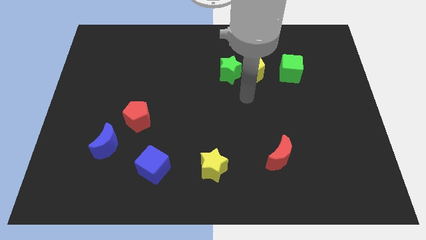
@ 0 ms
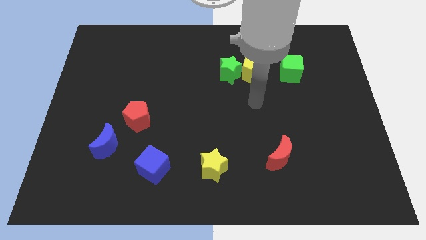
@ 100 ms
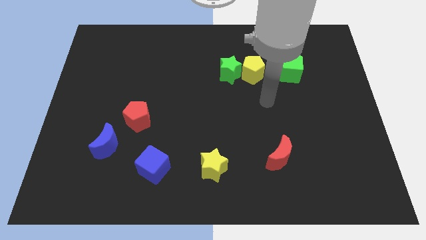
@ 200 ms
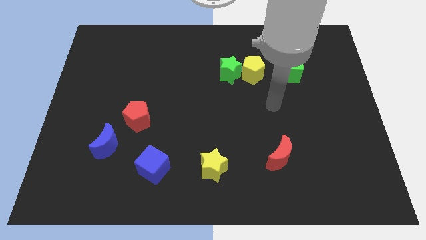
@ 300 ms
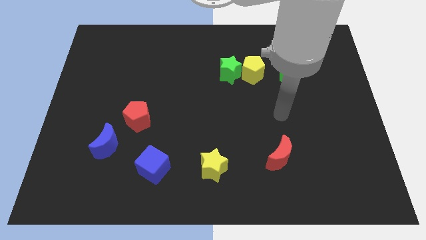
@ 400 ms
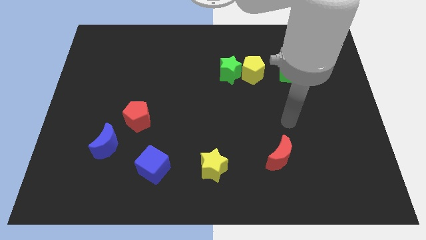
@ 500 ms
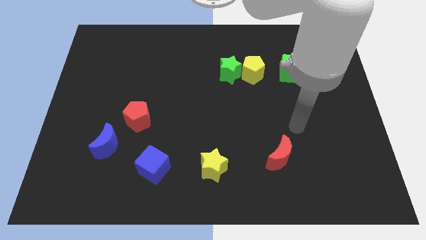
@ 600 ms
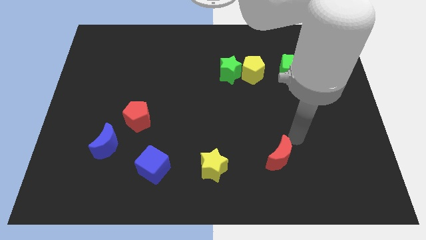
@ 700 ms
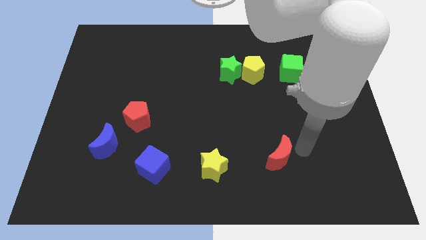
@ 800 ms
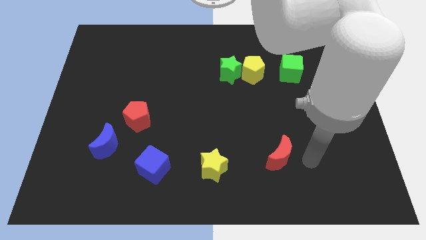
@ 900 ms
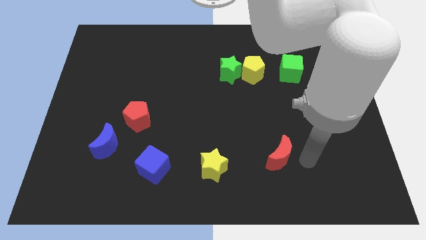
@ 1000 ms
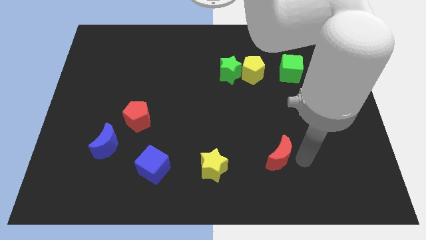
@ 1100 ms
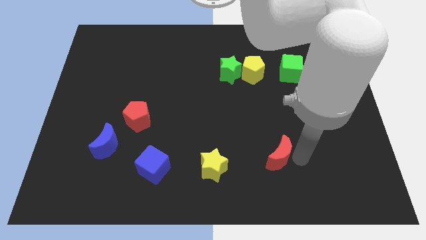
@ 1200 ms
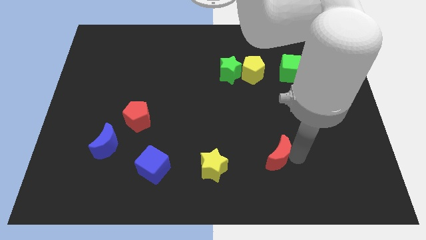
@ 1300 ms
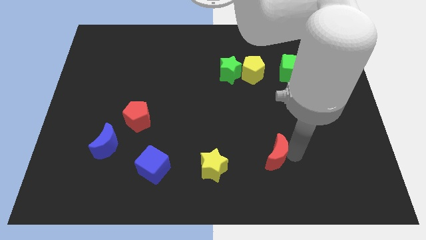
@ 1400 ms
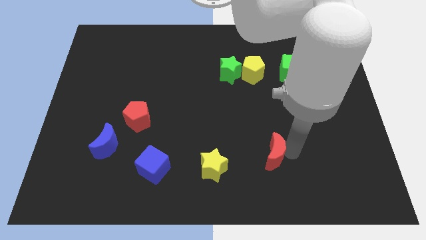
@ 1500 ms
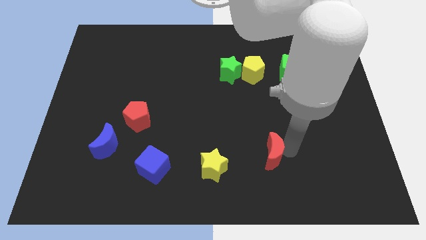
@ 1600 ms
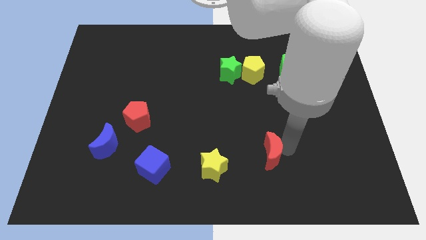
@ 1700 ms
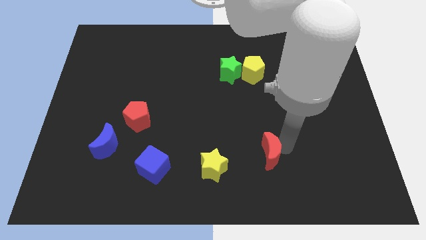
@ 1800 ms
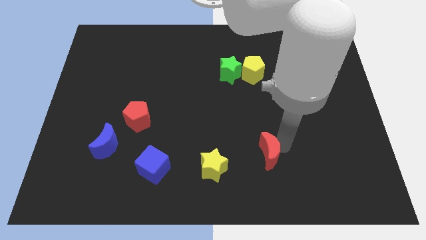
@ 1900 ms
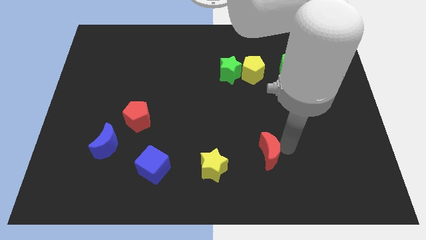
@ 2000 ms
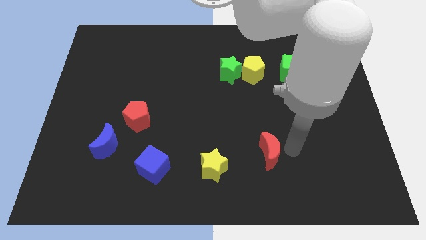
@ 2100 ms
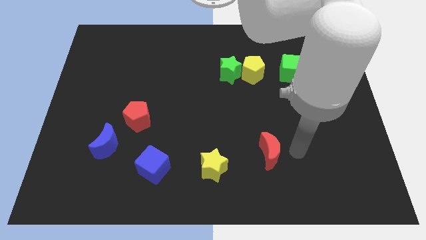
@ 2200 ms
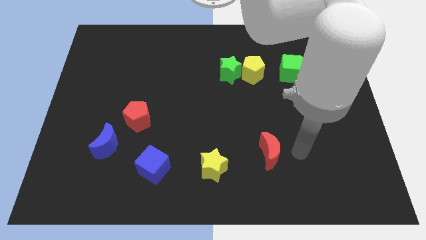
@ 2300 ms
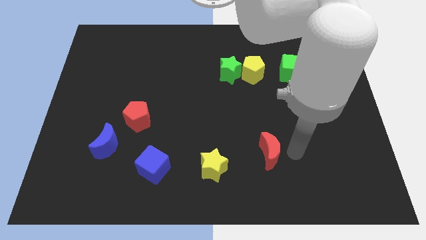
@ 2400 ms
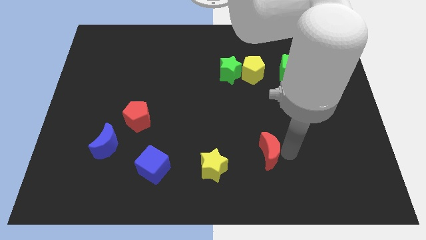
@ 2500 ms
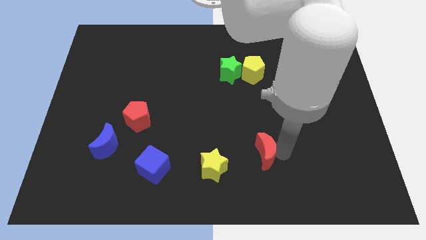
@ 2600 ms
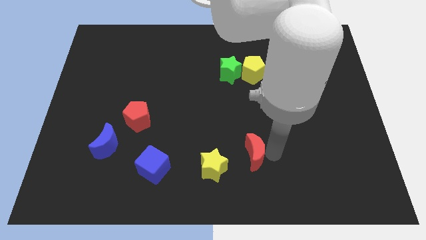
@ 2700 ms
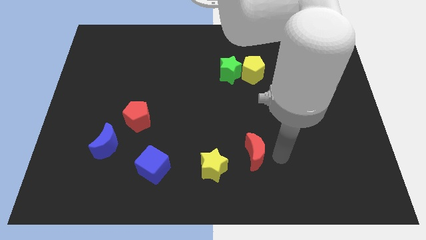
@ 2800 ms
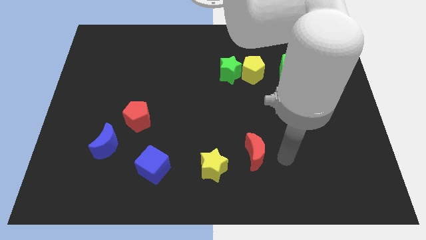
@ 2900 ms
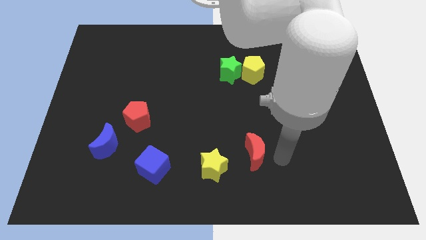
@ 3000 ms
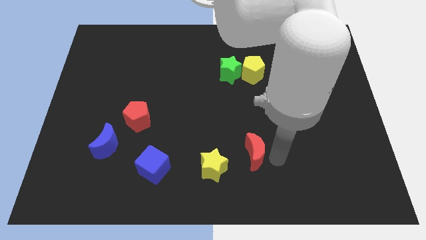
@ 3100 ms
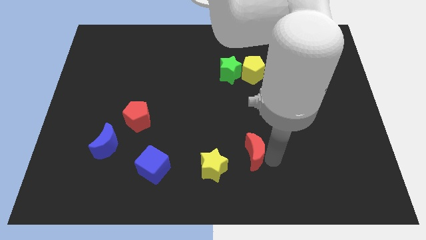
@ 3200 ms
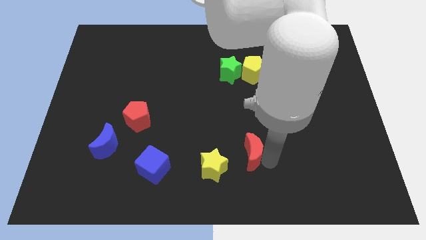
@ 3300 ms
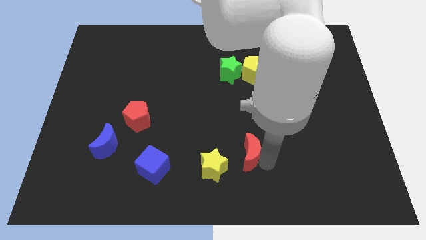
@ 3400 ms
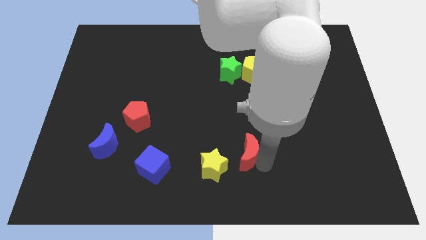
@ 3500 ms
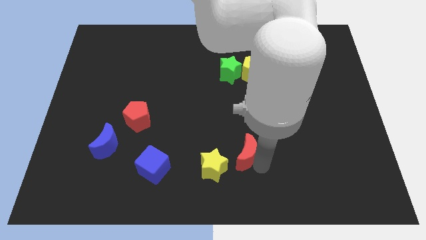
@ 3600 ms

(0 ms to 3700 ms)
slightly slide the red moon left

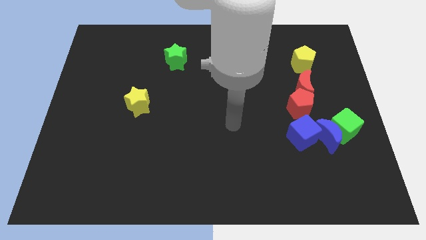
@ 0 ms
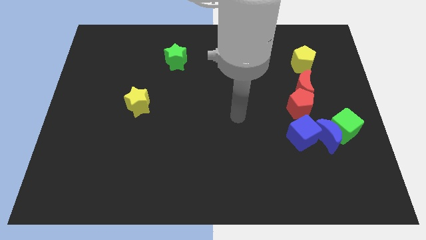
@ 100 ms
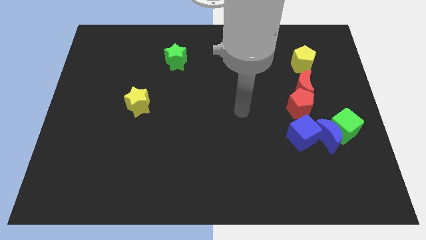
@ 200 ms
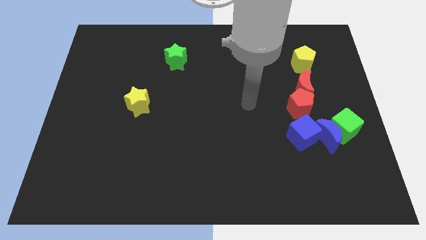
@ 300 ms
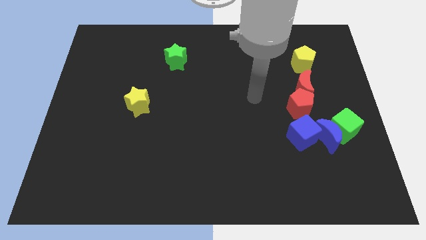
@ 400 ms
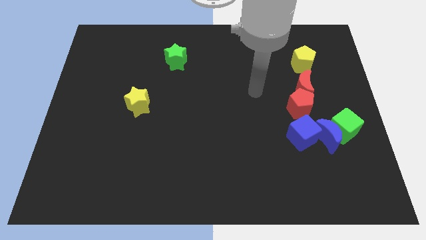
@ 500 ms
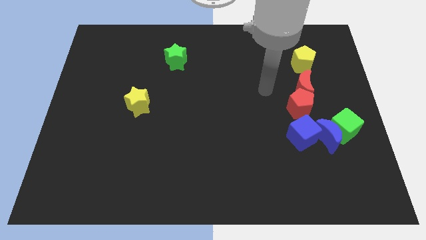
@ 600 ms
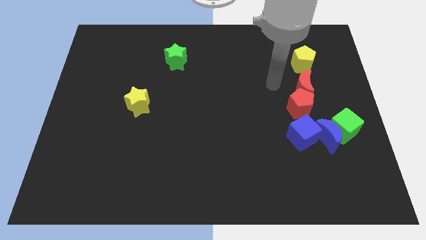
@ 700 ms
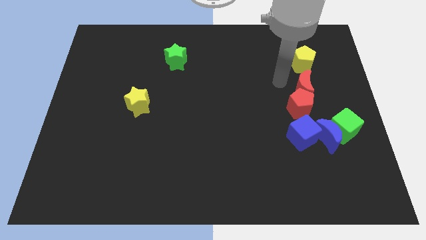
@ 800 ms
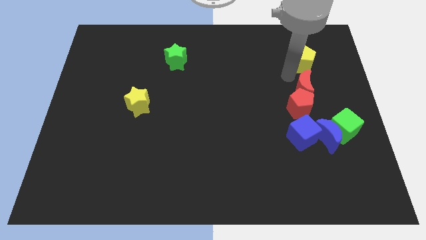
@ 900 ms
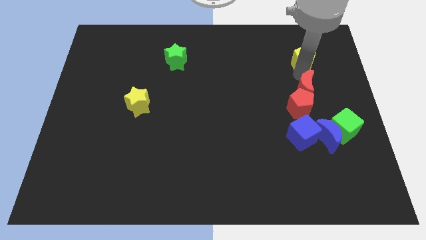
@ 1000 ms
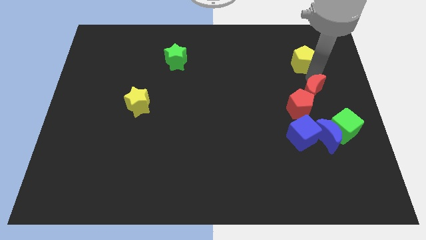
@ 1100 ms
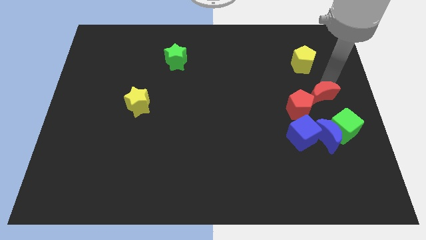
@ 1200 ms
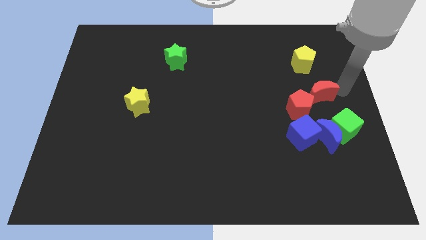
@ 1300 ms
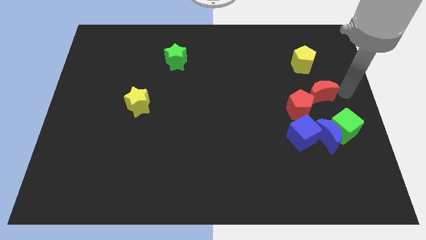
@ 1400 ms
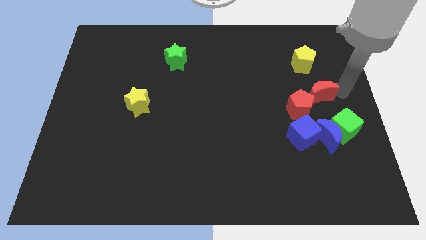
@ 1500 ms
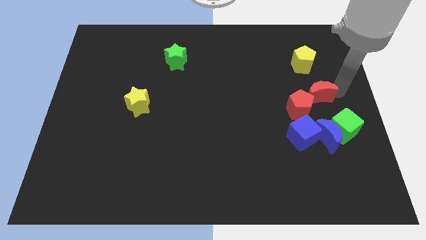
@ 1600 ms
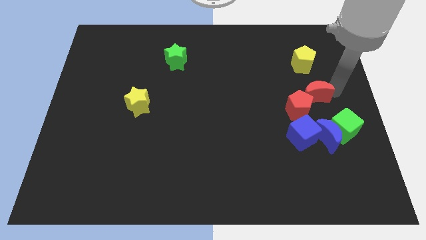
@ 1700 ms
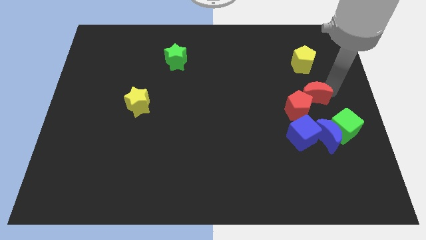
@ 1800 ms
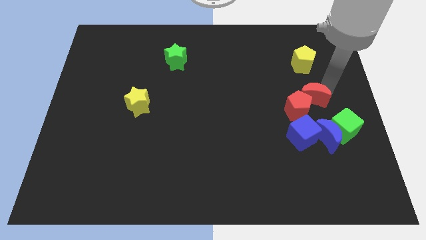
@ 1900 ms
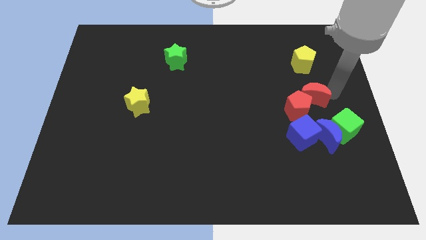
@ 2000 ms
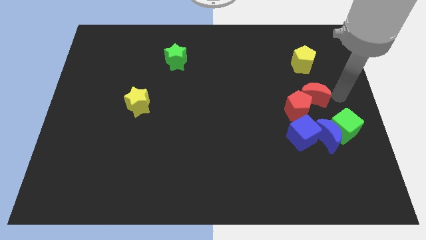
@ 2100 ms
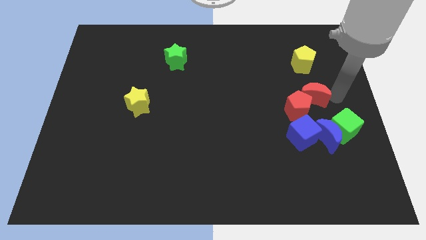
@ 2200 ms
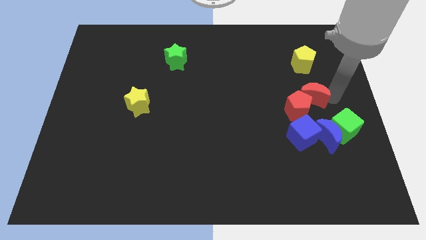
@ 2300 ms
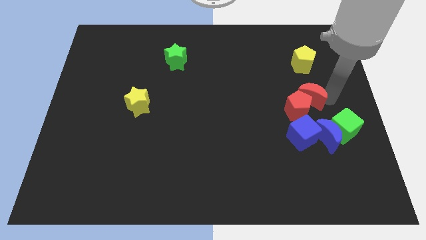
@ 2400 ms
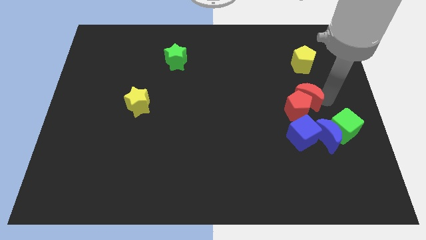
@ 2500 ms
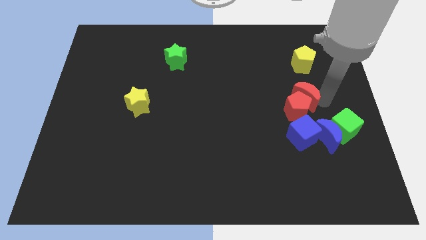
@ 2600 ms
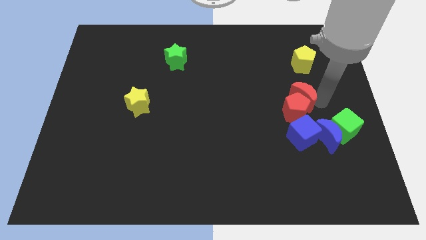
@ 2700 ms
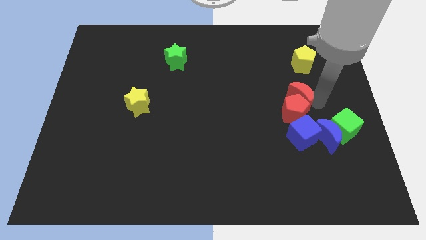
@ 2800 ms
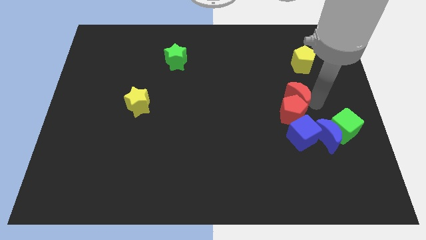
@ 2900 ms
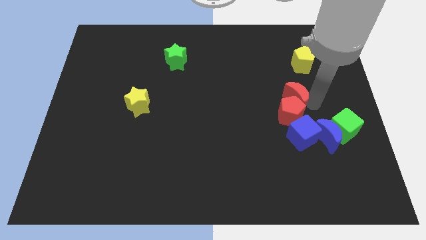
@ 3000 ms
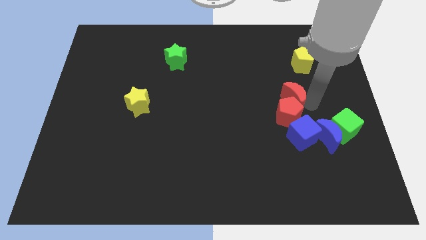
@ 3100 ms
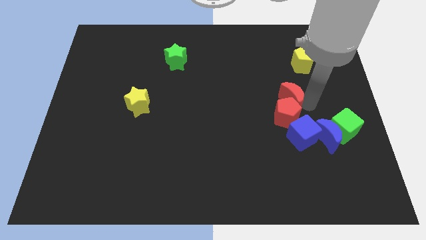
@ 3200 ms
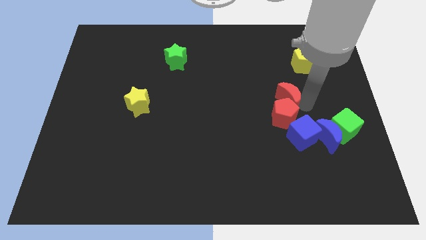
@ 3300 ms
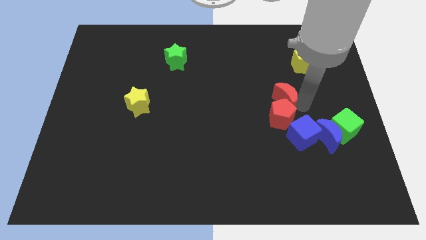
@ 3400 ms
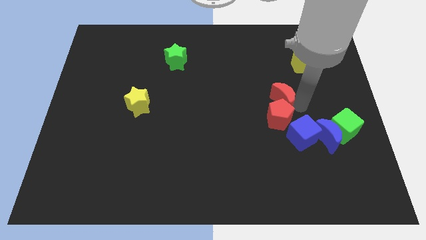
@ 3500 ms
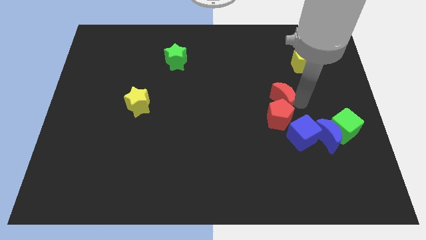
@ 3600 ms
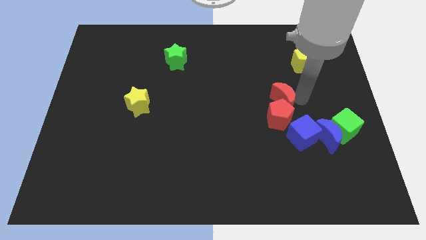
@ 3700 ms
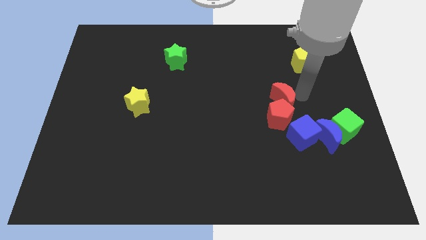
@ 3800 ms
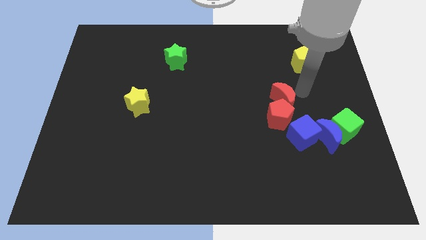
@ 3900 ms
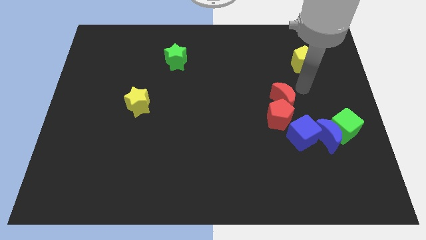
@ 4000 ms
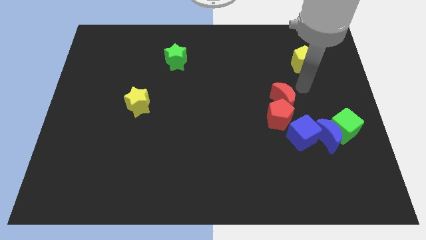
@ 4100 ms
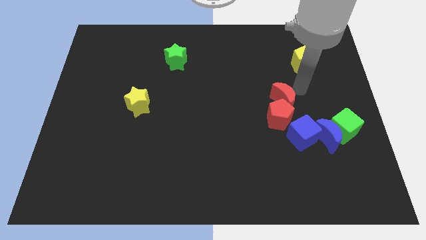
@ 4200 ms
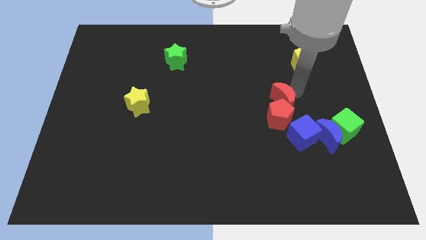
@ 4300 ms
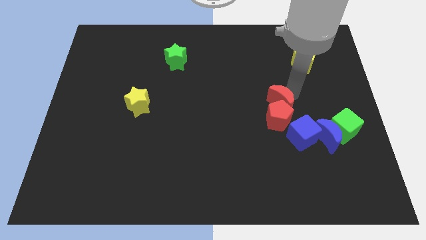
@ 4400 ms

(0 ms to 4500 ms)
push the red moon a bit downwards and to the left
